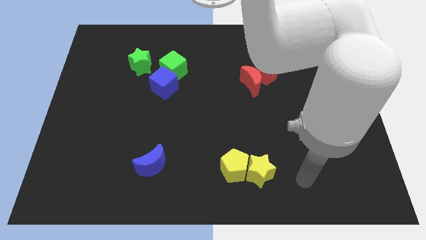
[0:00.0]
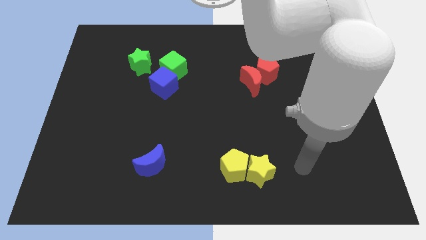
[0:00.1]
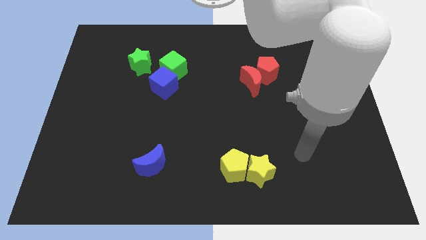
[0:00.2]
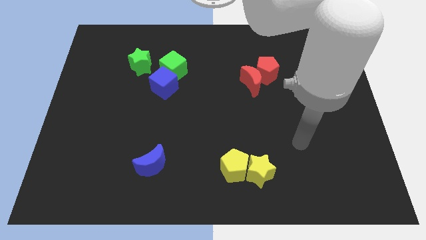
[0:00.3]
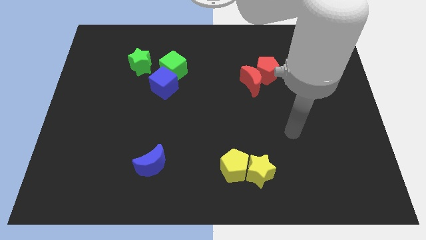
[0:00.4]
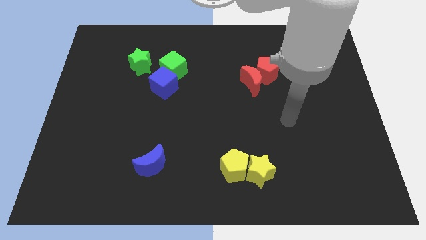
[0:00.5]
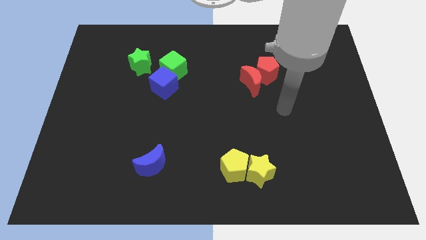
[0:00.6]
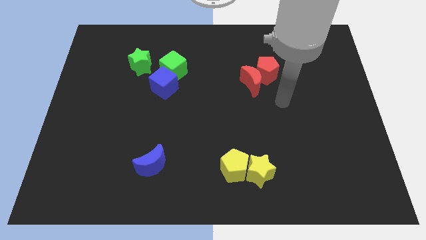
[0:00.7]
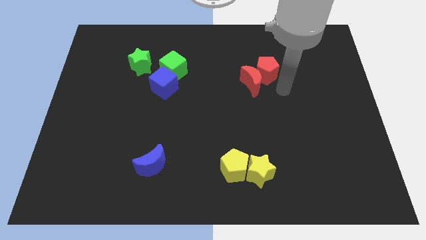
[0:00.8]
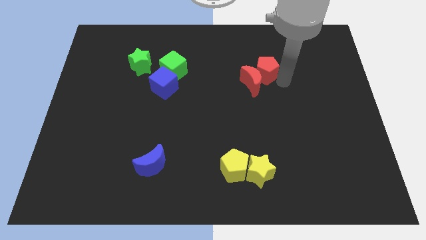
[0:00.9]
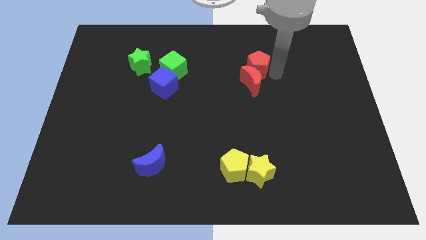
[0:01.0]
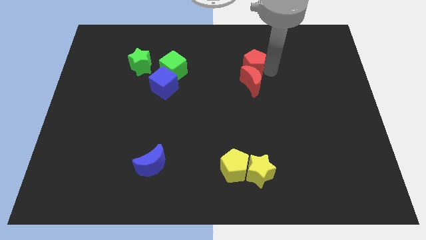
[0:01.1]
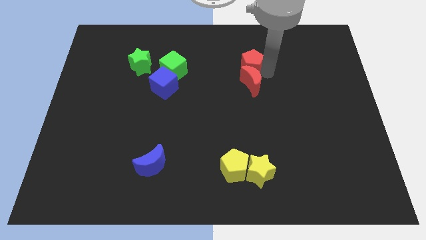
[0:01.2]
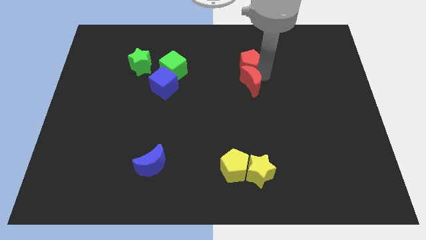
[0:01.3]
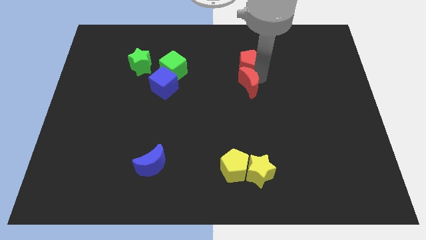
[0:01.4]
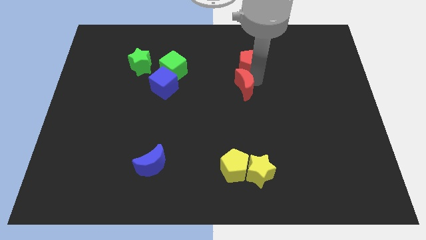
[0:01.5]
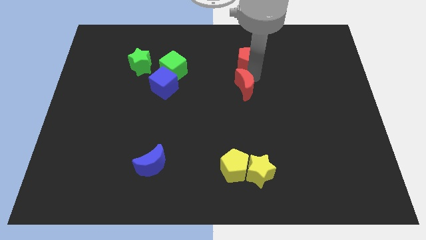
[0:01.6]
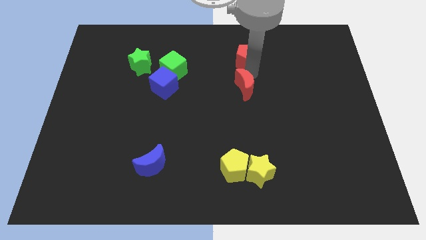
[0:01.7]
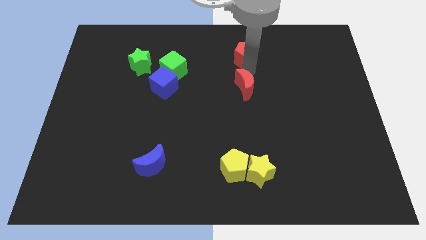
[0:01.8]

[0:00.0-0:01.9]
separate the red moon from the red pentagon

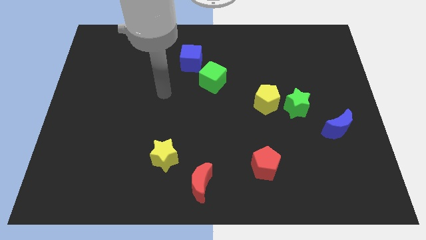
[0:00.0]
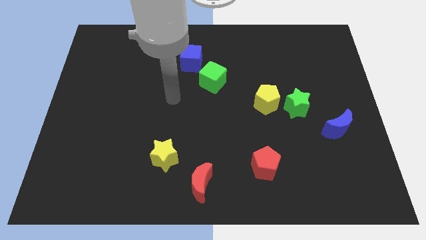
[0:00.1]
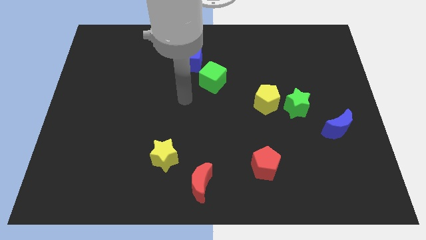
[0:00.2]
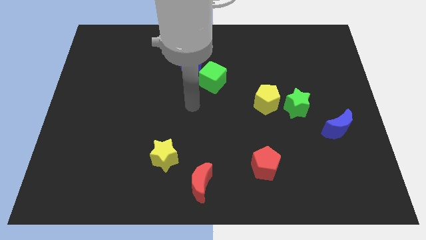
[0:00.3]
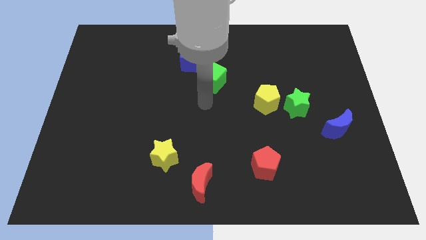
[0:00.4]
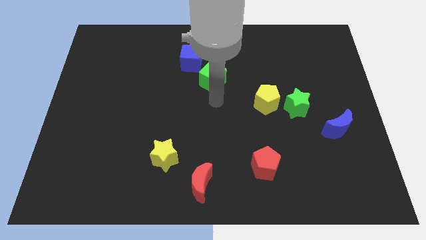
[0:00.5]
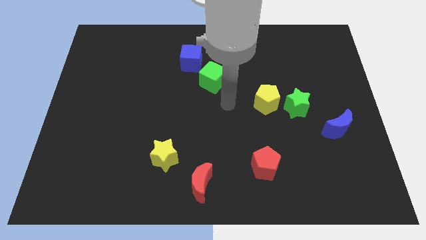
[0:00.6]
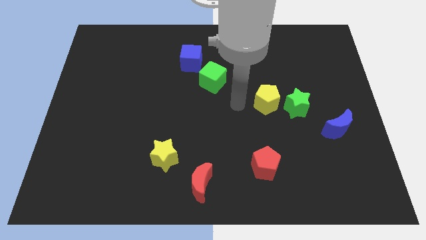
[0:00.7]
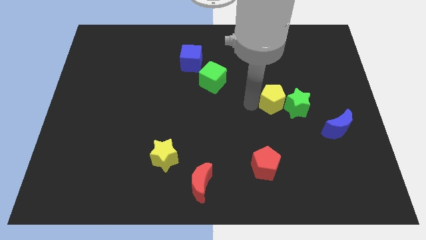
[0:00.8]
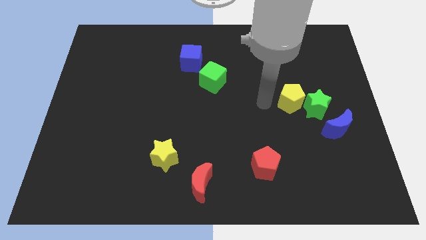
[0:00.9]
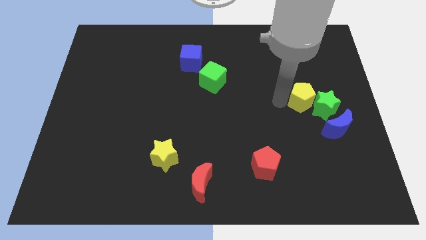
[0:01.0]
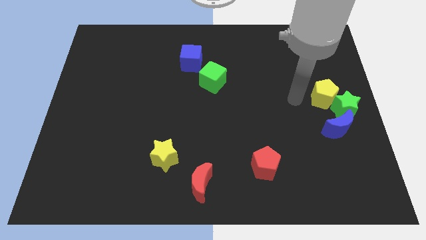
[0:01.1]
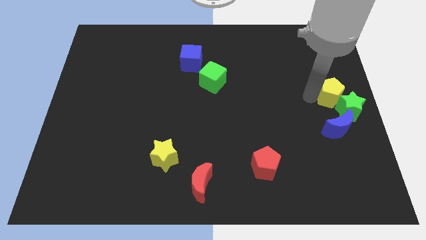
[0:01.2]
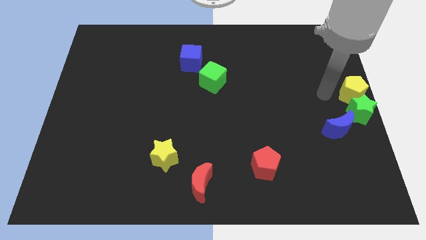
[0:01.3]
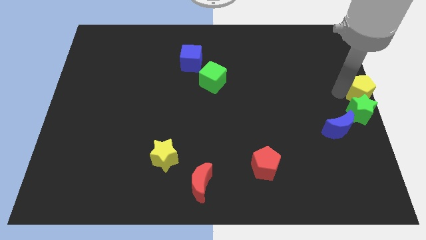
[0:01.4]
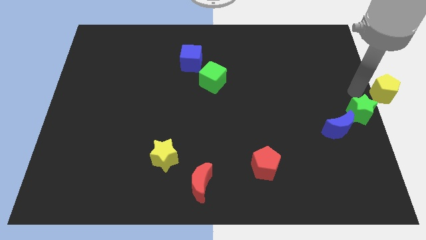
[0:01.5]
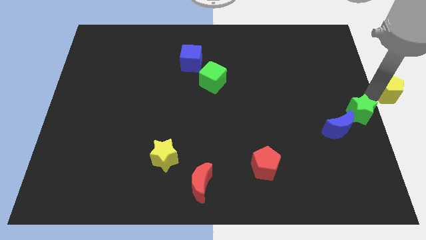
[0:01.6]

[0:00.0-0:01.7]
move the green star away from the yellow pentagon

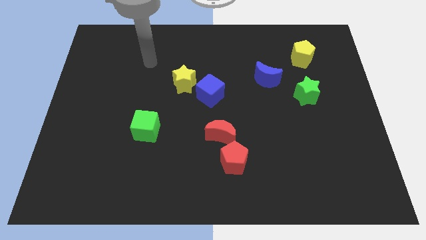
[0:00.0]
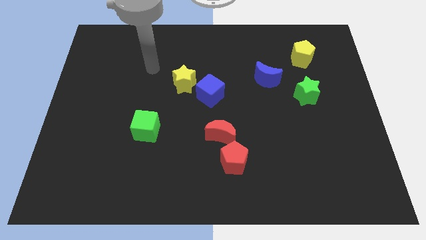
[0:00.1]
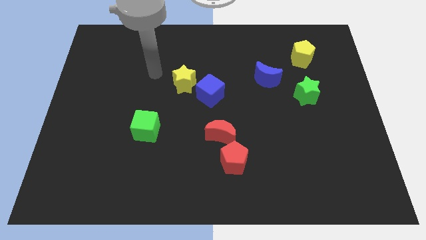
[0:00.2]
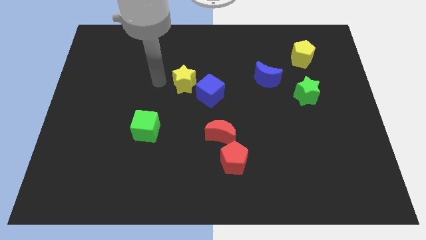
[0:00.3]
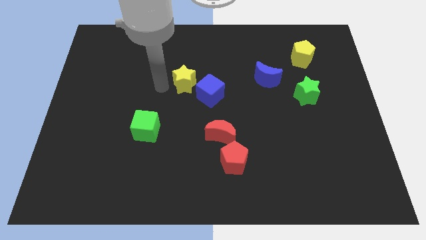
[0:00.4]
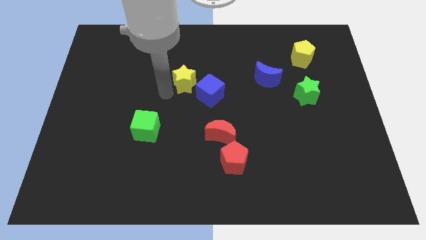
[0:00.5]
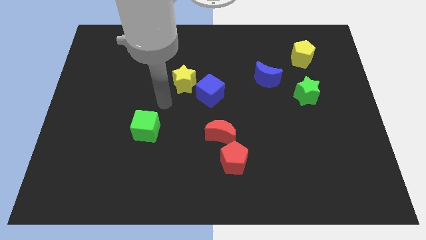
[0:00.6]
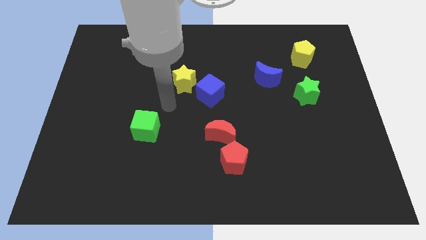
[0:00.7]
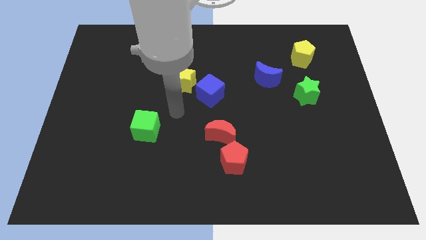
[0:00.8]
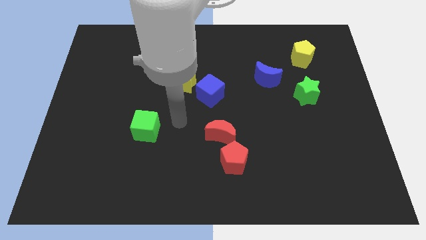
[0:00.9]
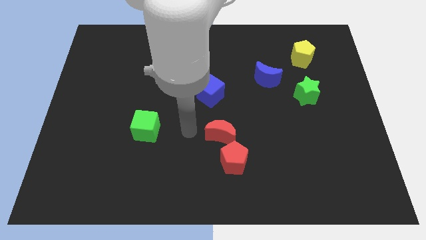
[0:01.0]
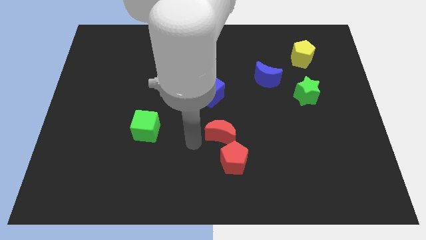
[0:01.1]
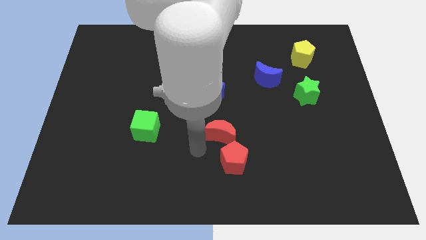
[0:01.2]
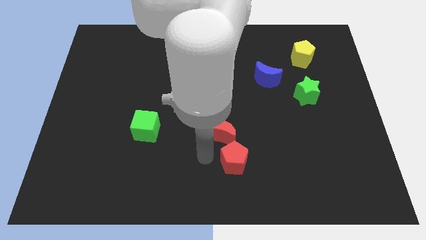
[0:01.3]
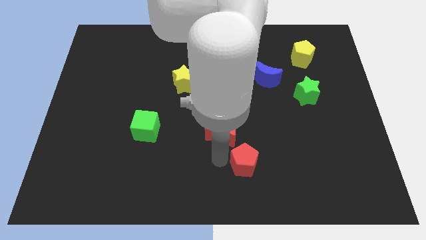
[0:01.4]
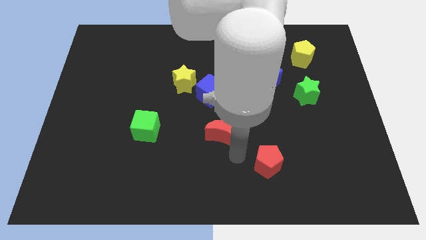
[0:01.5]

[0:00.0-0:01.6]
move the red moon away from the red pentagon

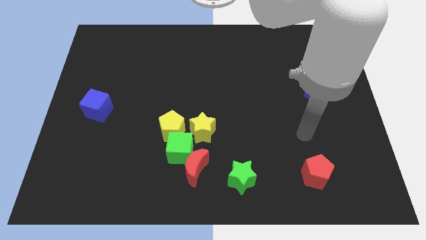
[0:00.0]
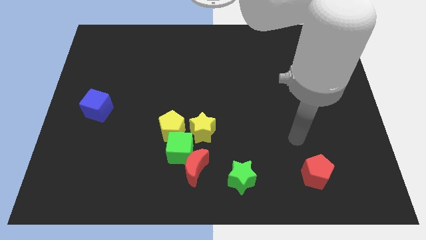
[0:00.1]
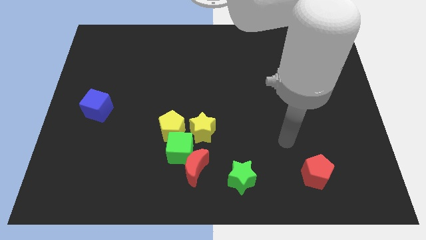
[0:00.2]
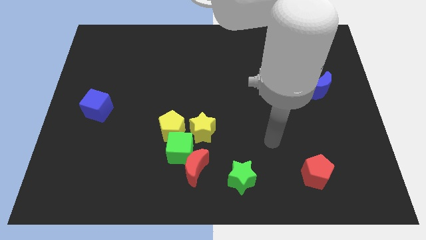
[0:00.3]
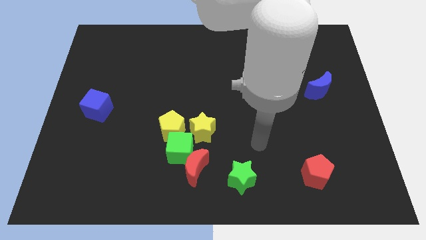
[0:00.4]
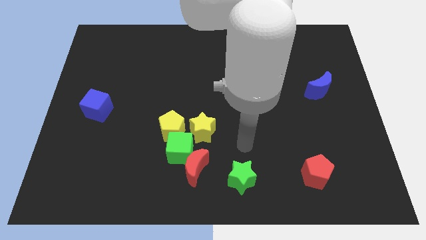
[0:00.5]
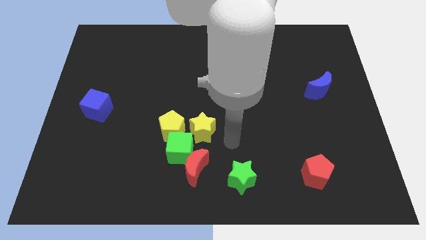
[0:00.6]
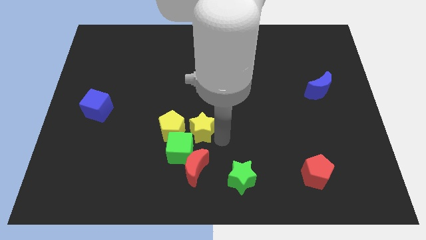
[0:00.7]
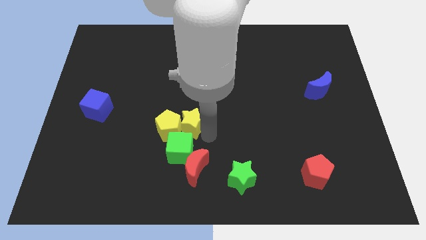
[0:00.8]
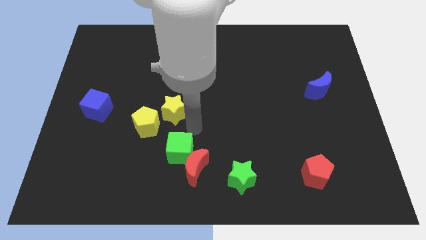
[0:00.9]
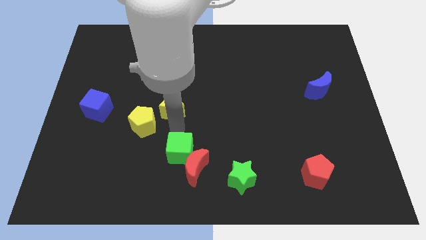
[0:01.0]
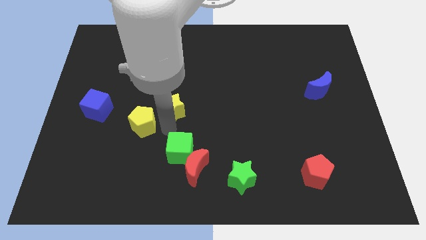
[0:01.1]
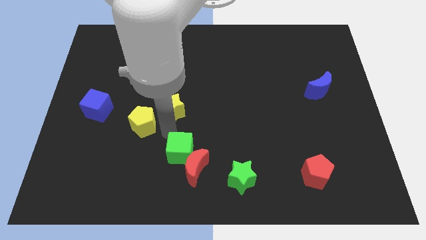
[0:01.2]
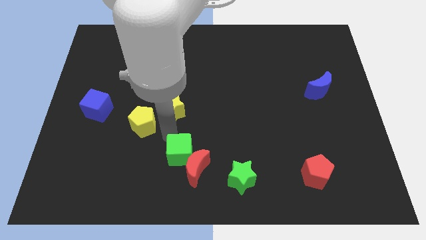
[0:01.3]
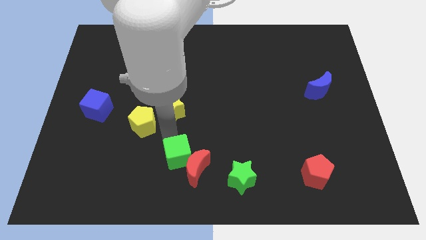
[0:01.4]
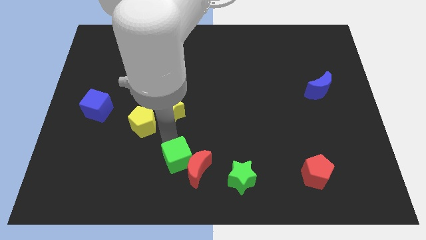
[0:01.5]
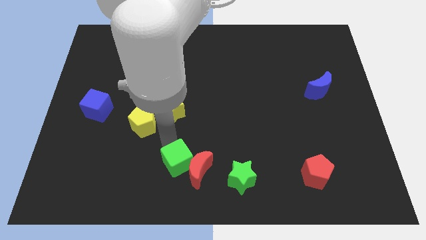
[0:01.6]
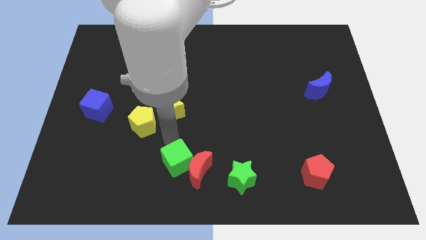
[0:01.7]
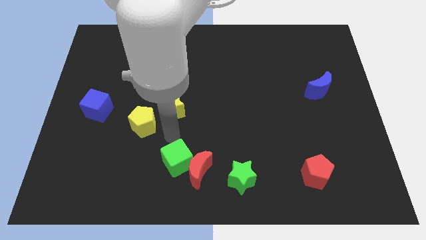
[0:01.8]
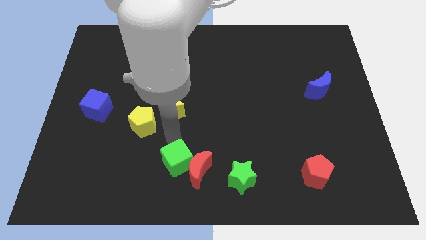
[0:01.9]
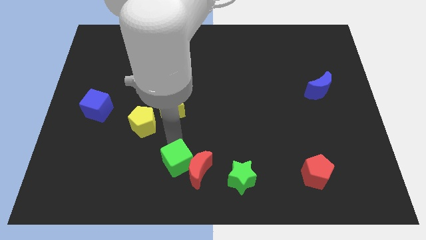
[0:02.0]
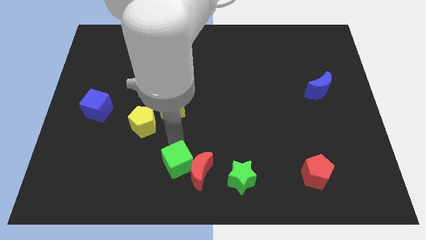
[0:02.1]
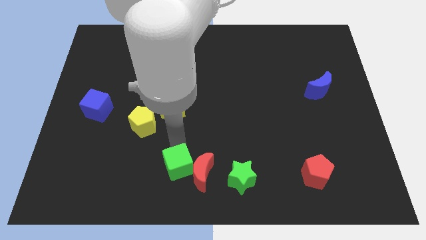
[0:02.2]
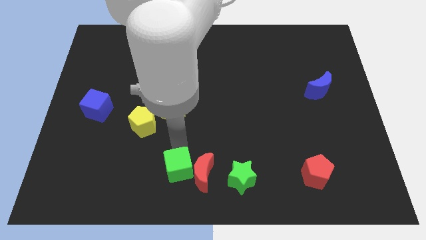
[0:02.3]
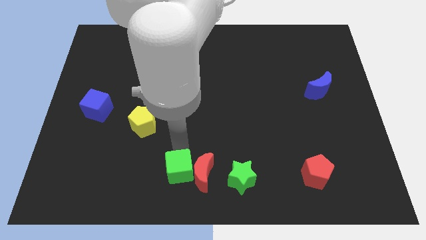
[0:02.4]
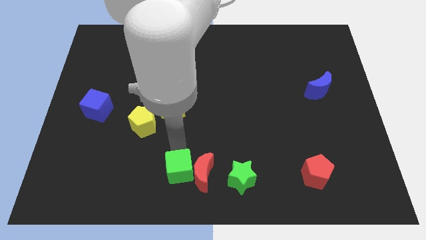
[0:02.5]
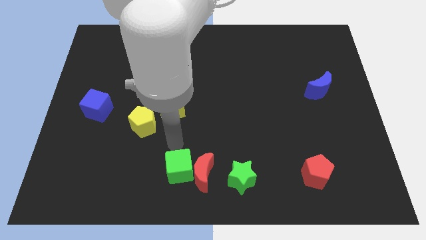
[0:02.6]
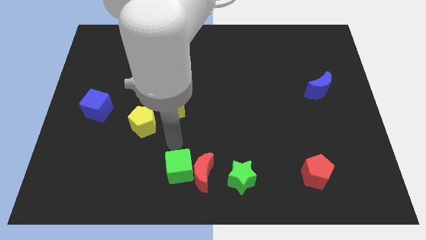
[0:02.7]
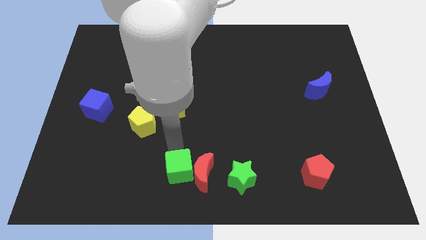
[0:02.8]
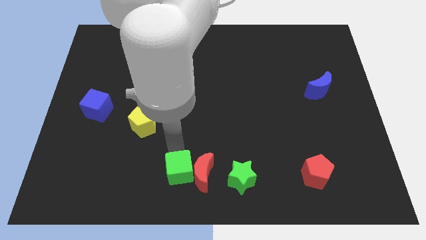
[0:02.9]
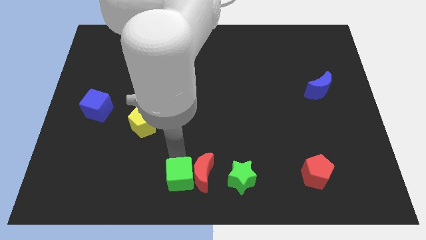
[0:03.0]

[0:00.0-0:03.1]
pull the green cube apart from the red moon, yellow pentagon, and yellow star

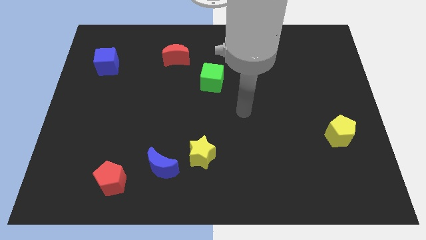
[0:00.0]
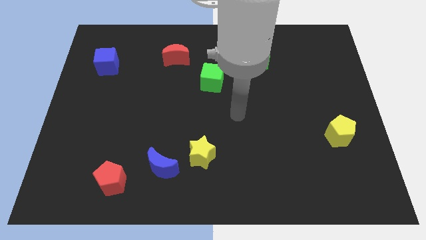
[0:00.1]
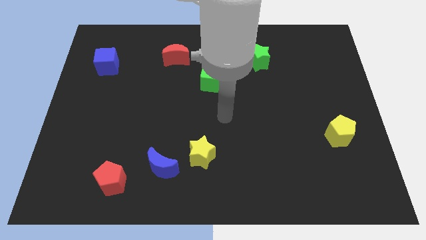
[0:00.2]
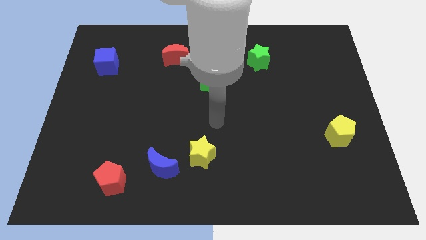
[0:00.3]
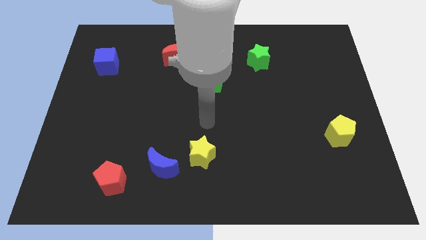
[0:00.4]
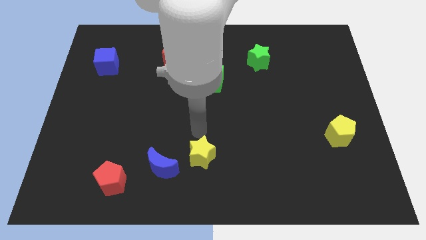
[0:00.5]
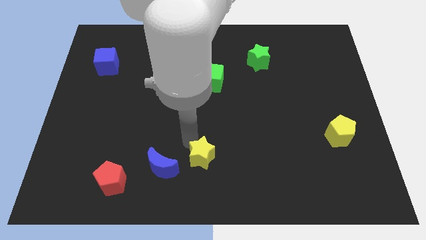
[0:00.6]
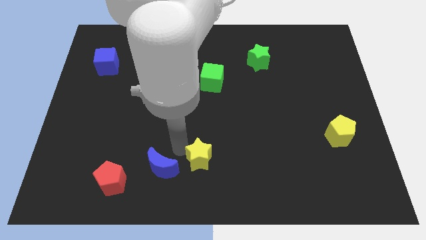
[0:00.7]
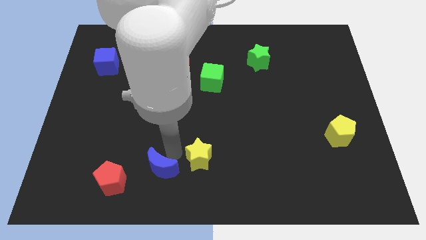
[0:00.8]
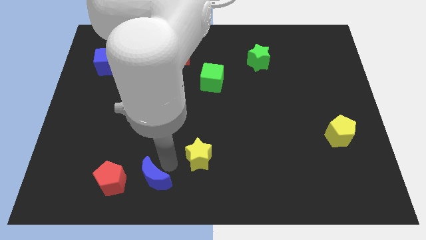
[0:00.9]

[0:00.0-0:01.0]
move the yellow star away from the blue moon
